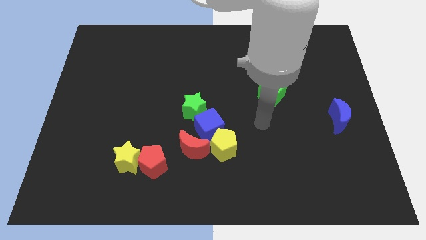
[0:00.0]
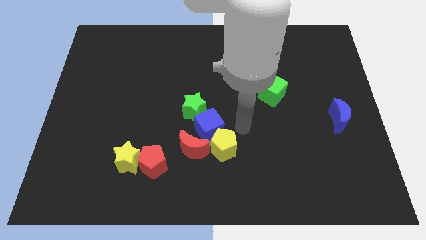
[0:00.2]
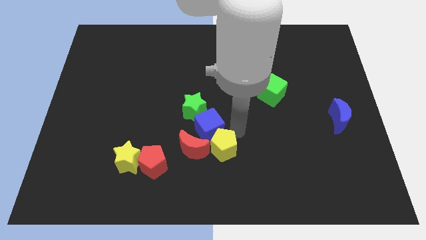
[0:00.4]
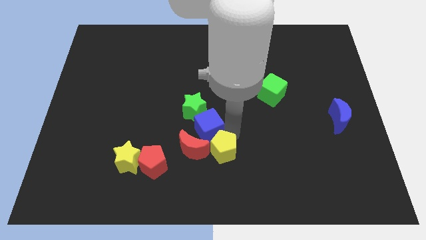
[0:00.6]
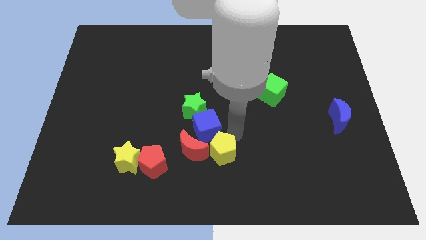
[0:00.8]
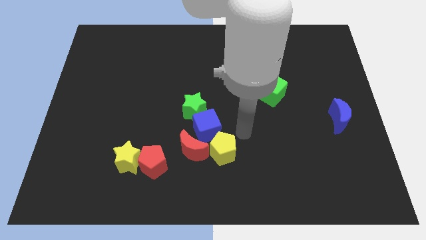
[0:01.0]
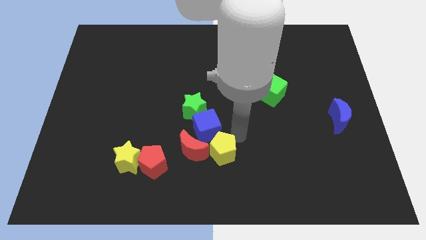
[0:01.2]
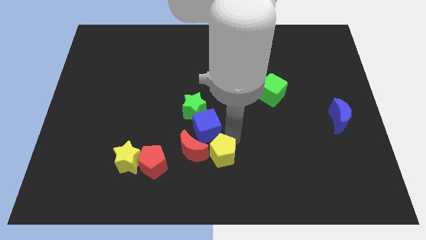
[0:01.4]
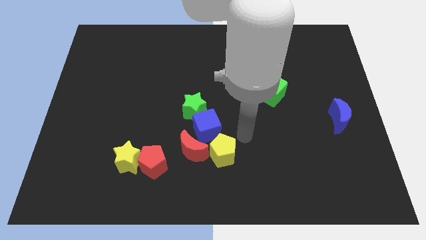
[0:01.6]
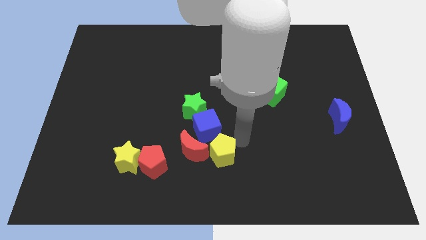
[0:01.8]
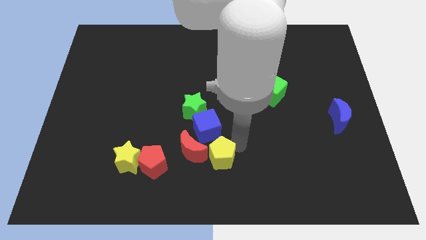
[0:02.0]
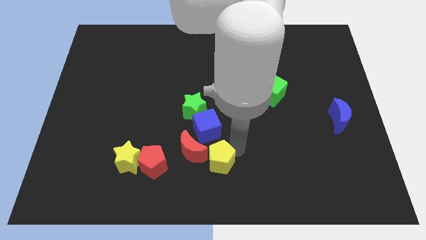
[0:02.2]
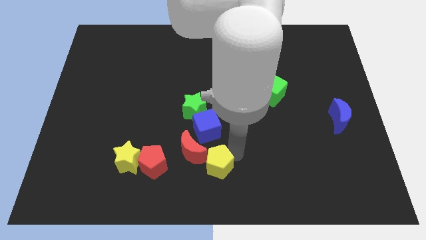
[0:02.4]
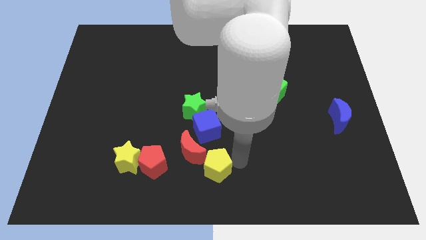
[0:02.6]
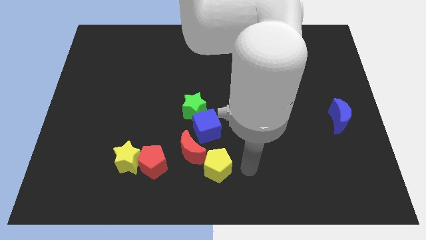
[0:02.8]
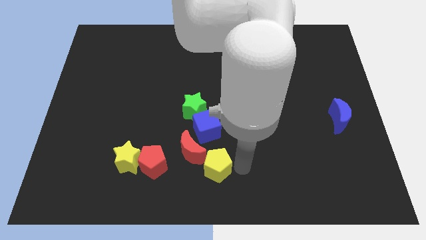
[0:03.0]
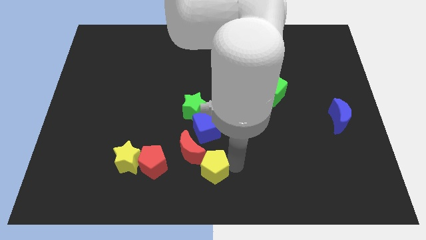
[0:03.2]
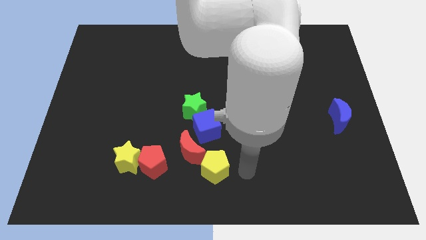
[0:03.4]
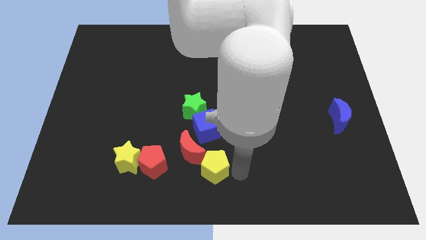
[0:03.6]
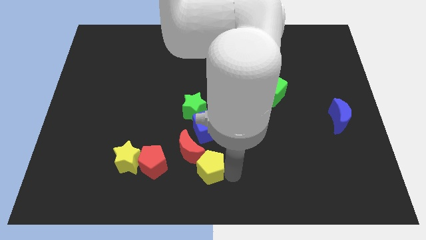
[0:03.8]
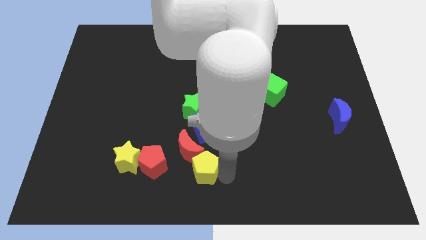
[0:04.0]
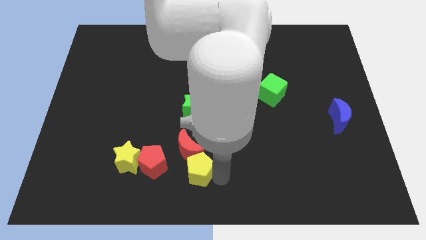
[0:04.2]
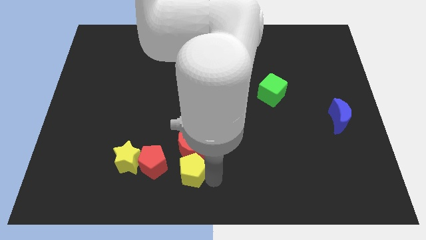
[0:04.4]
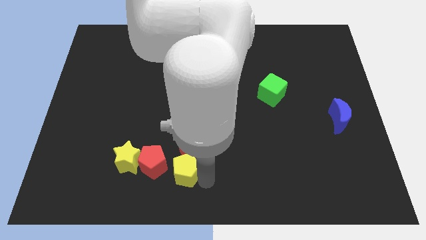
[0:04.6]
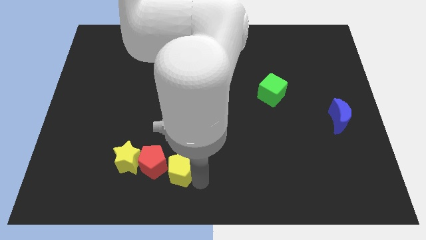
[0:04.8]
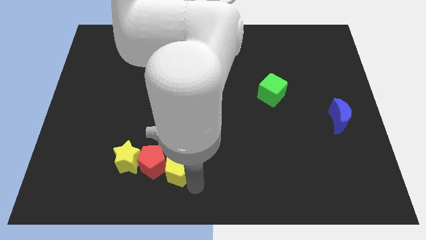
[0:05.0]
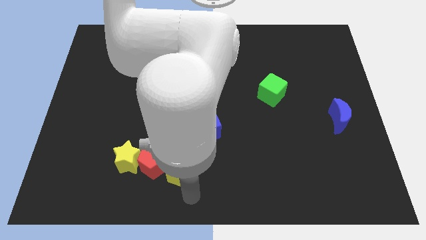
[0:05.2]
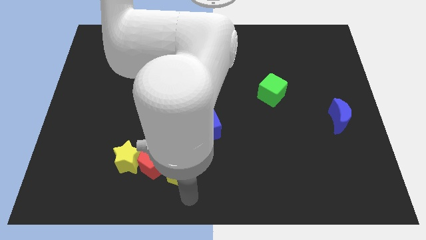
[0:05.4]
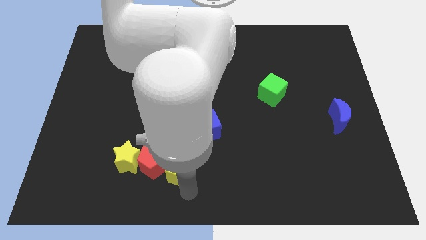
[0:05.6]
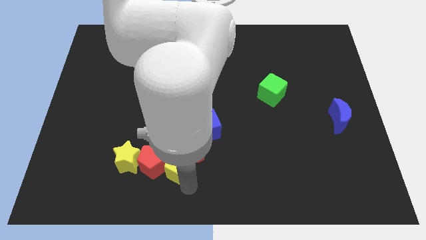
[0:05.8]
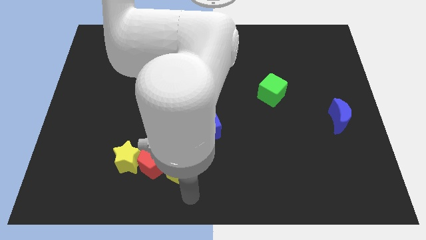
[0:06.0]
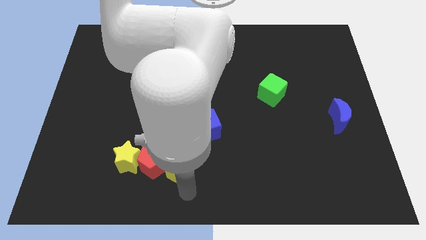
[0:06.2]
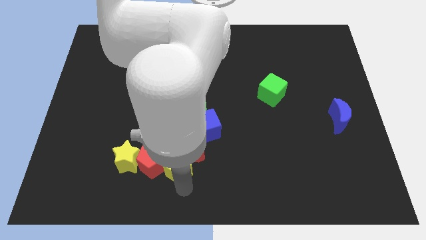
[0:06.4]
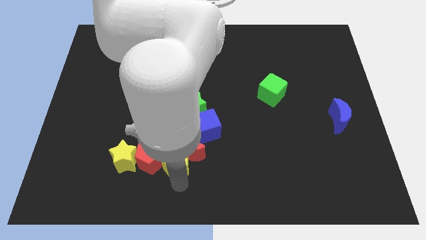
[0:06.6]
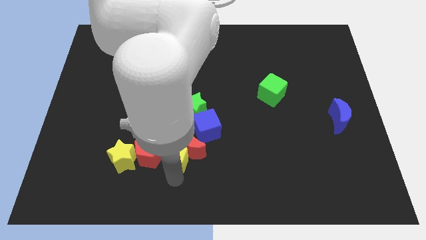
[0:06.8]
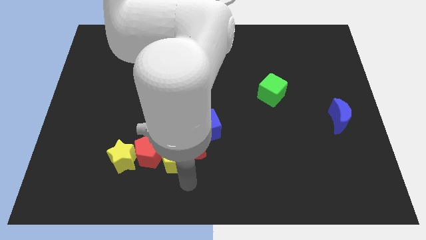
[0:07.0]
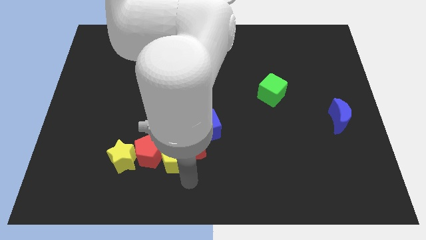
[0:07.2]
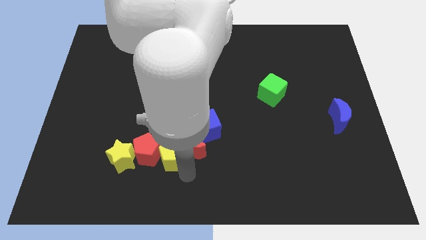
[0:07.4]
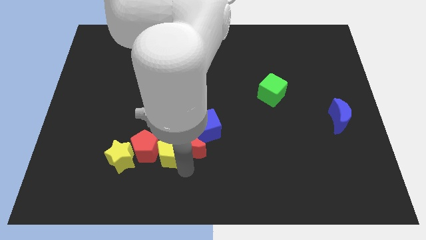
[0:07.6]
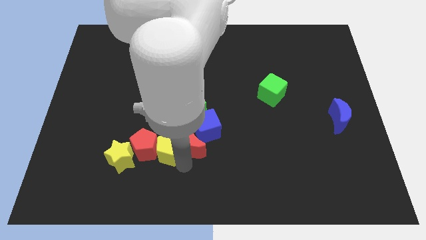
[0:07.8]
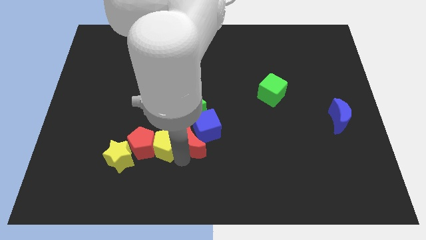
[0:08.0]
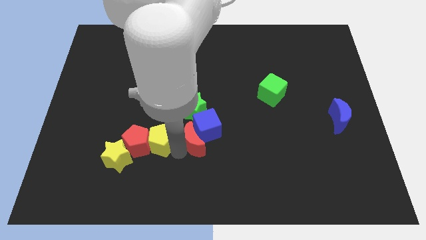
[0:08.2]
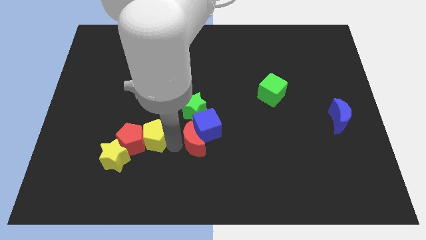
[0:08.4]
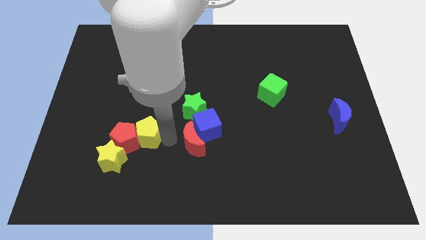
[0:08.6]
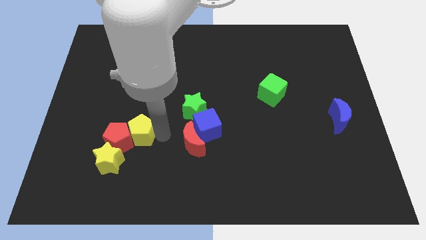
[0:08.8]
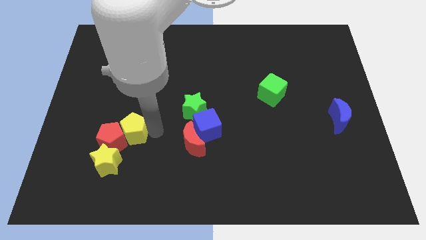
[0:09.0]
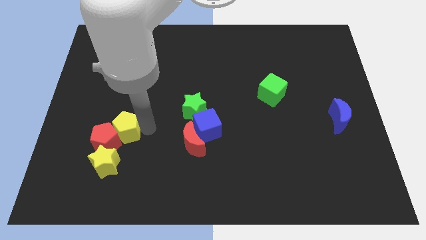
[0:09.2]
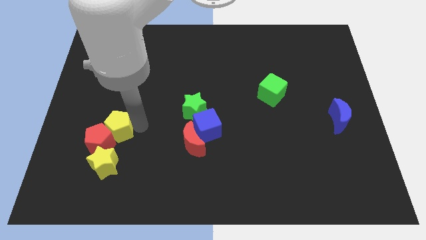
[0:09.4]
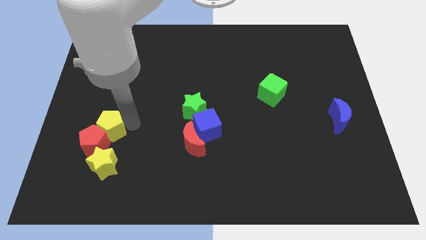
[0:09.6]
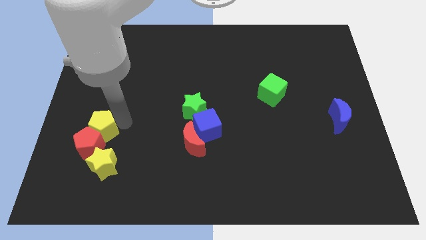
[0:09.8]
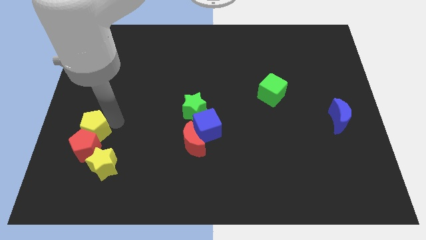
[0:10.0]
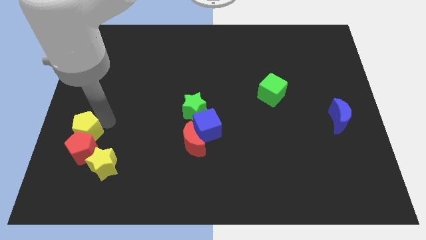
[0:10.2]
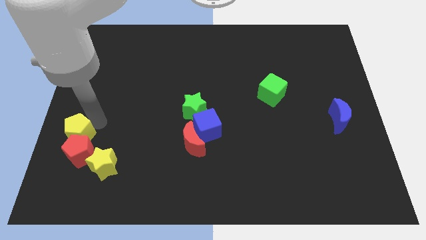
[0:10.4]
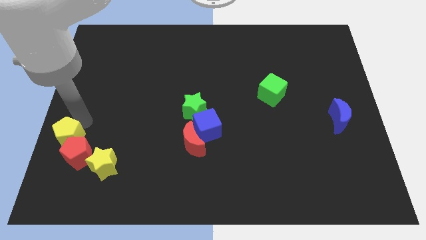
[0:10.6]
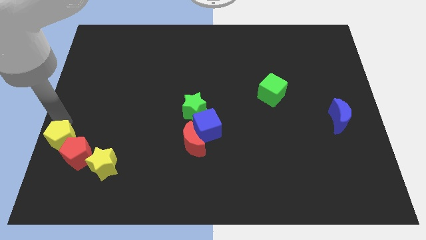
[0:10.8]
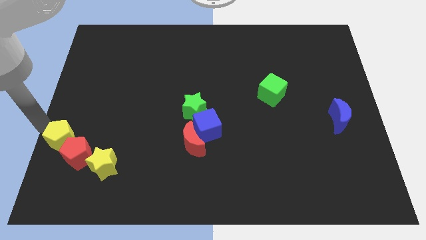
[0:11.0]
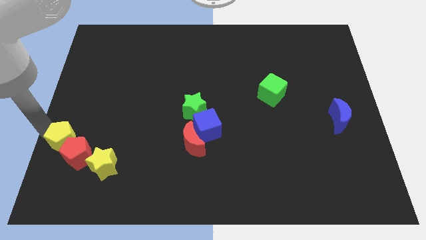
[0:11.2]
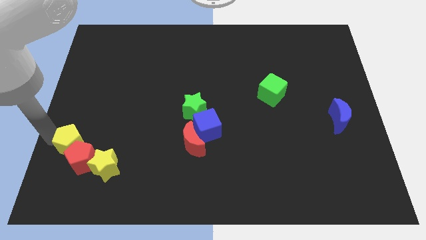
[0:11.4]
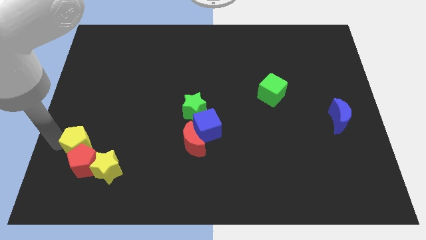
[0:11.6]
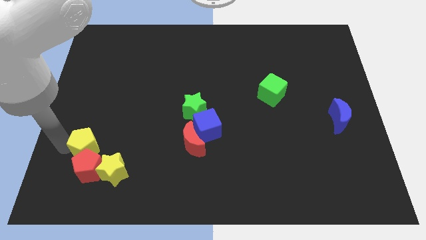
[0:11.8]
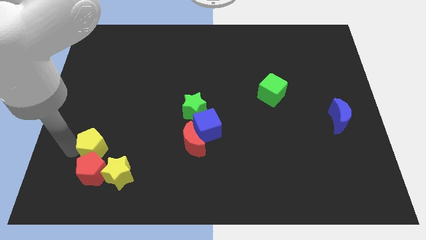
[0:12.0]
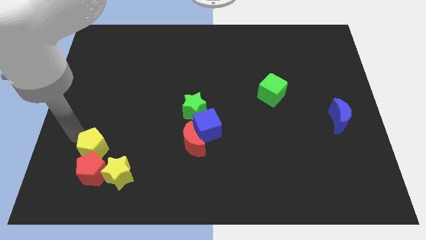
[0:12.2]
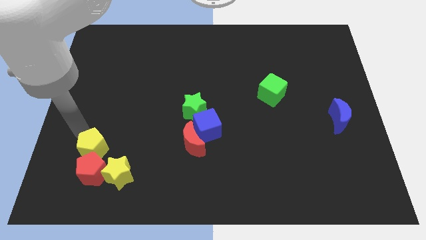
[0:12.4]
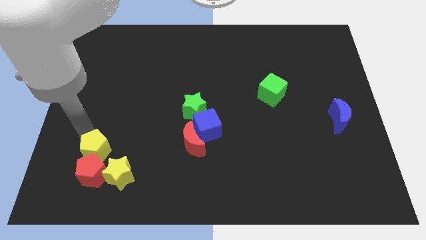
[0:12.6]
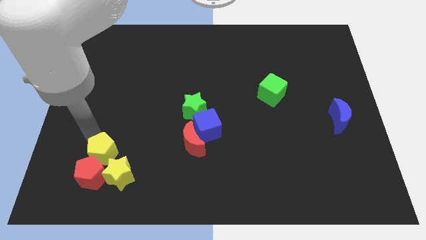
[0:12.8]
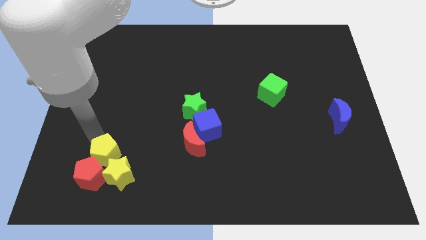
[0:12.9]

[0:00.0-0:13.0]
slide the yellow pentagon close to the yellow star
